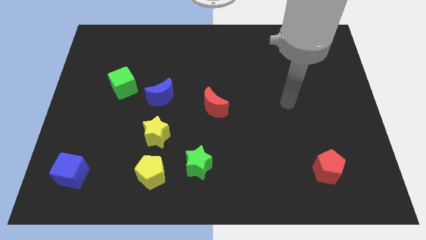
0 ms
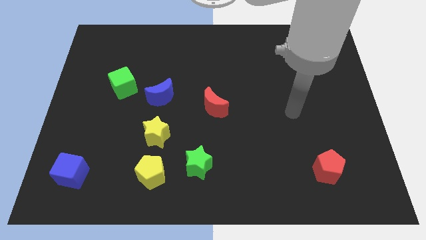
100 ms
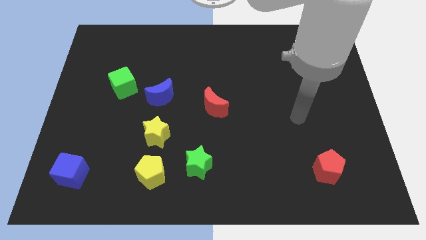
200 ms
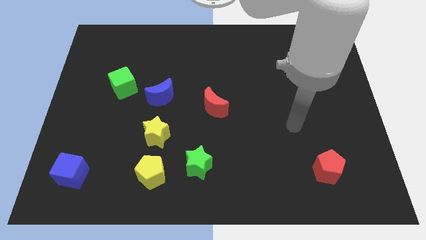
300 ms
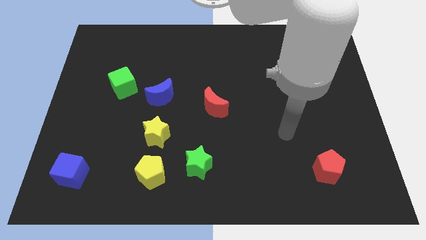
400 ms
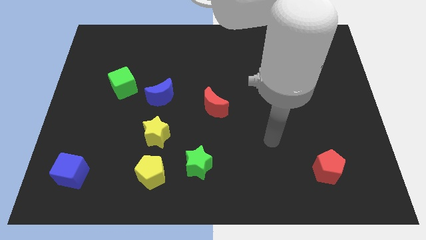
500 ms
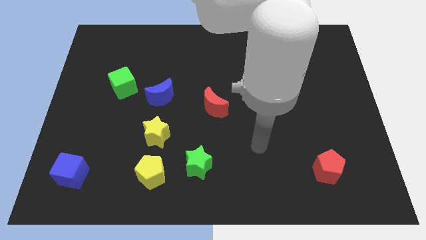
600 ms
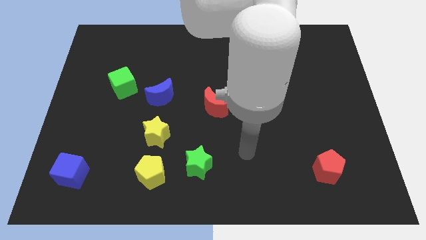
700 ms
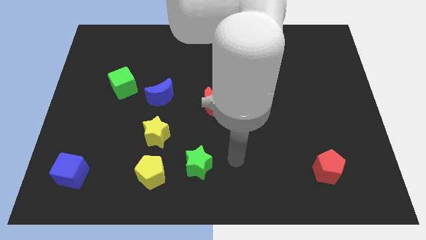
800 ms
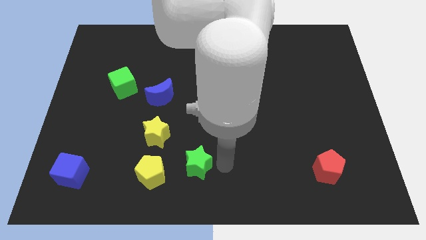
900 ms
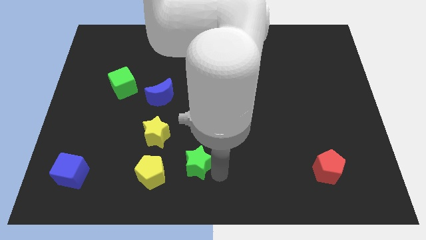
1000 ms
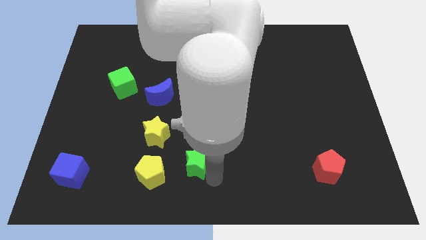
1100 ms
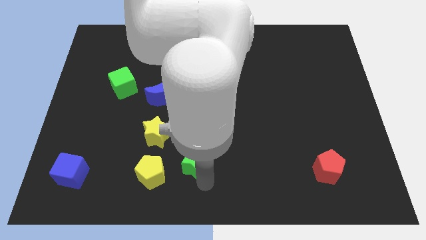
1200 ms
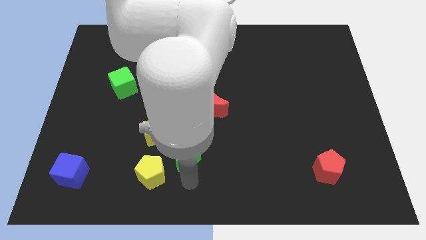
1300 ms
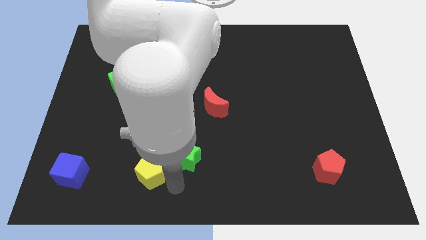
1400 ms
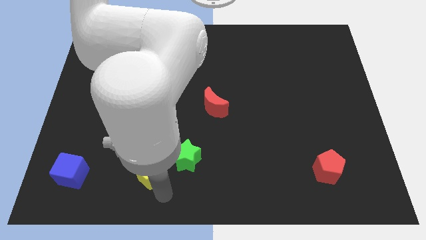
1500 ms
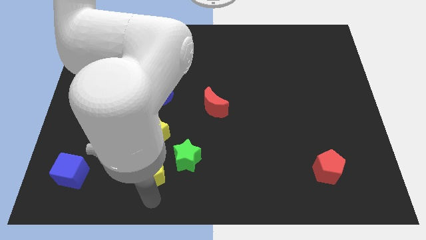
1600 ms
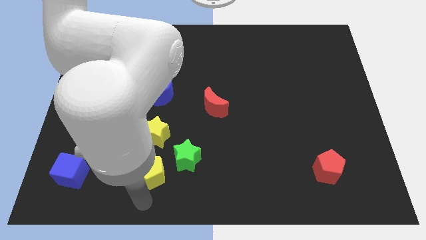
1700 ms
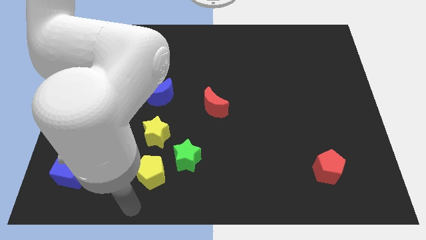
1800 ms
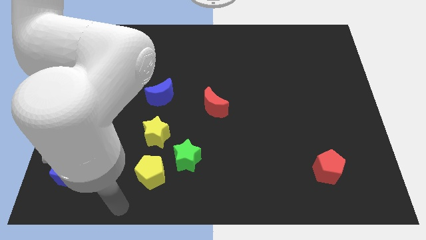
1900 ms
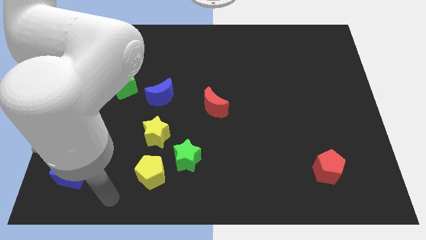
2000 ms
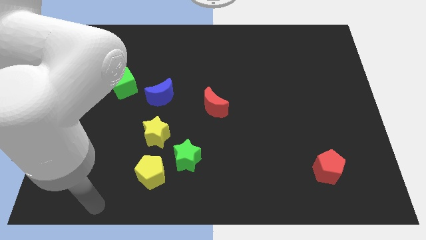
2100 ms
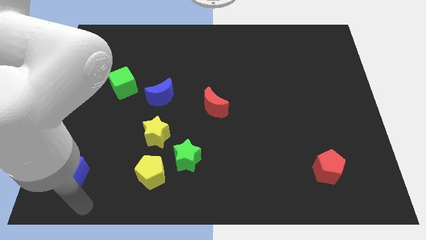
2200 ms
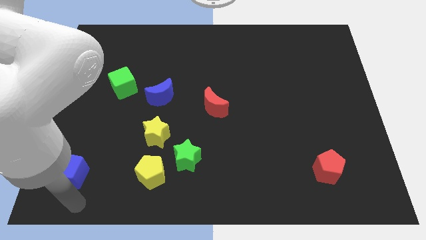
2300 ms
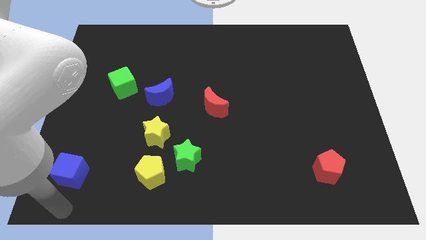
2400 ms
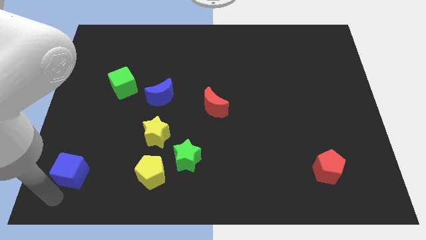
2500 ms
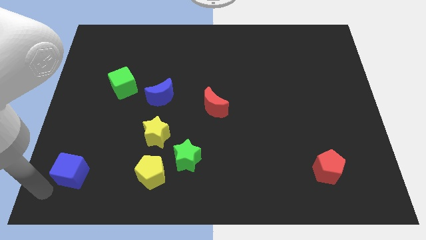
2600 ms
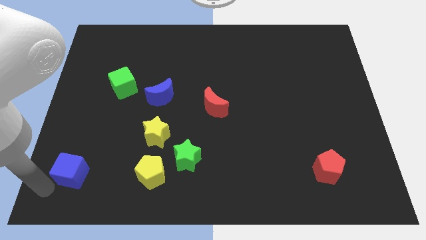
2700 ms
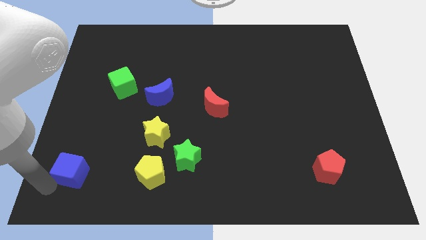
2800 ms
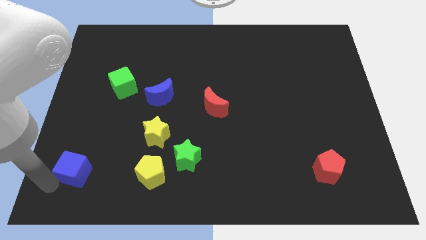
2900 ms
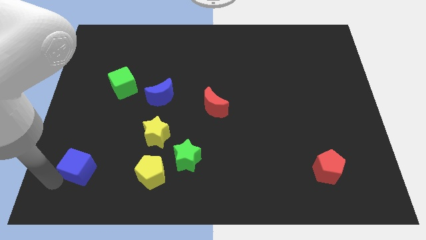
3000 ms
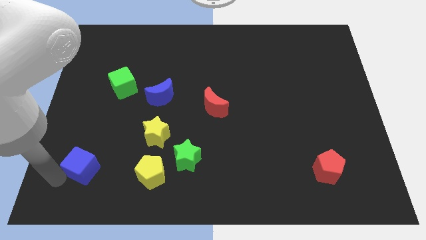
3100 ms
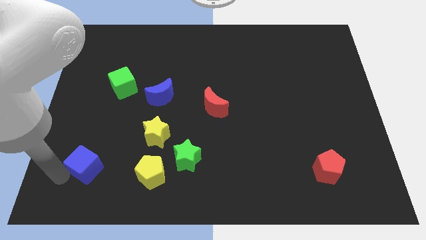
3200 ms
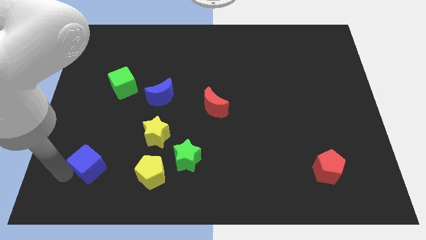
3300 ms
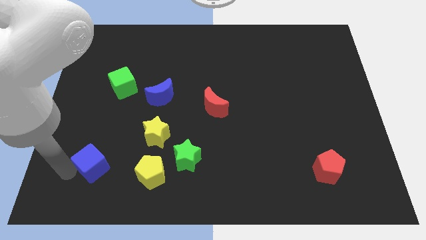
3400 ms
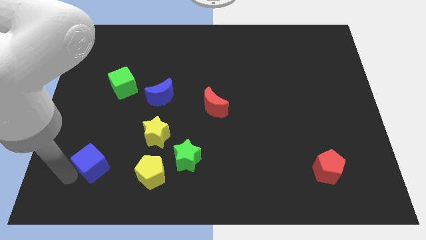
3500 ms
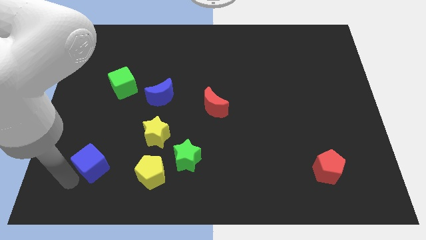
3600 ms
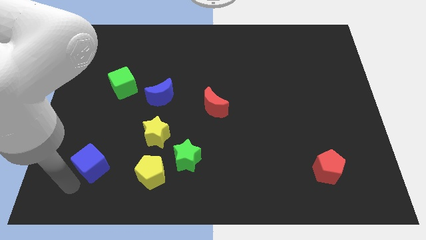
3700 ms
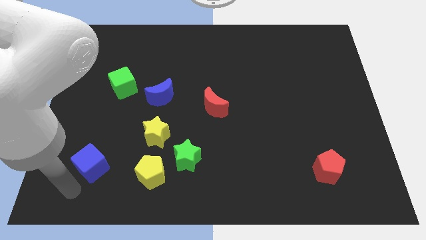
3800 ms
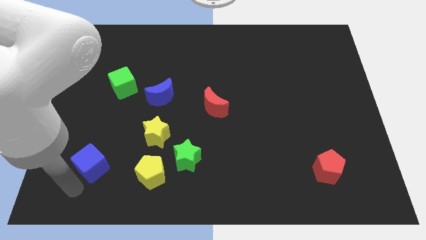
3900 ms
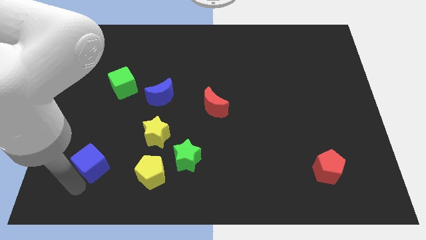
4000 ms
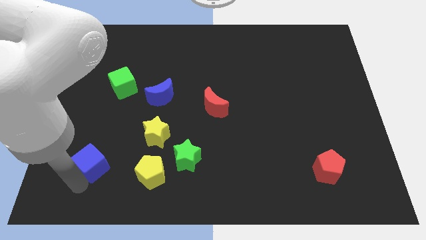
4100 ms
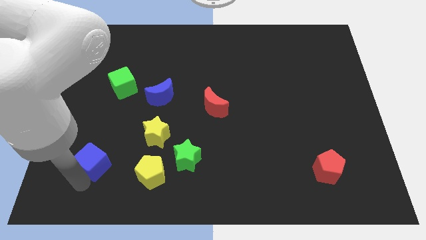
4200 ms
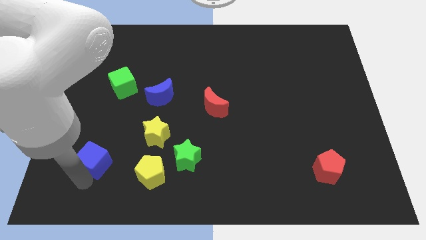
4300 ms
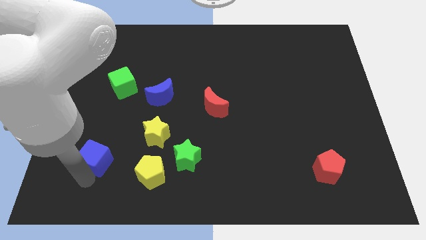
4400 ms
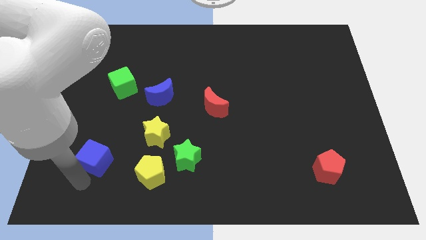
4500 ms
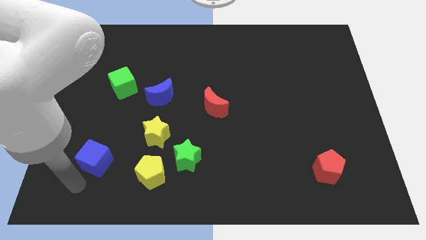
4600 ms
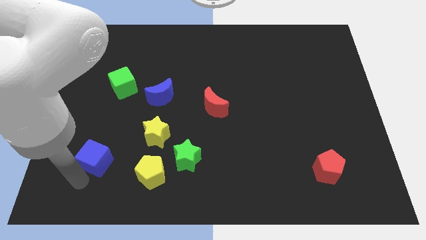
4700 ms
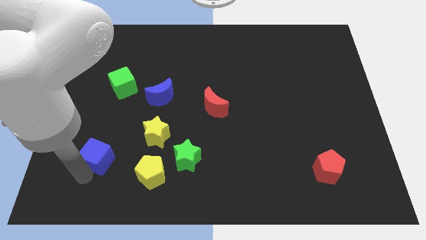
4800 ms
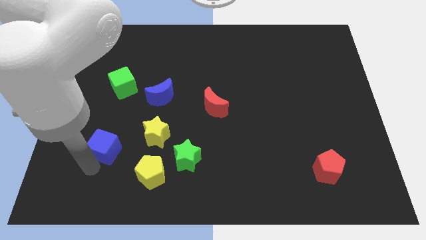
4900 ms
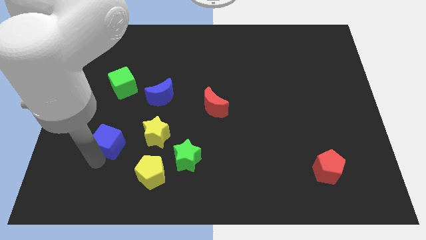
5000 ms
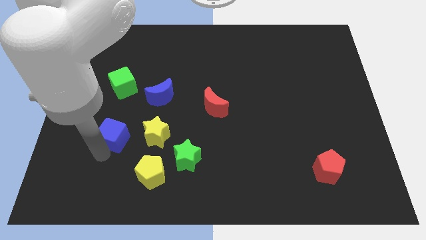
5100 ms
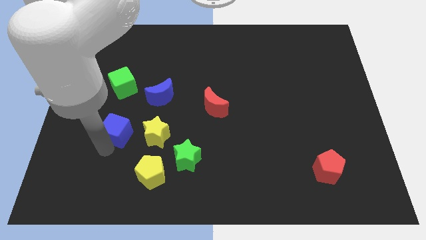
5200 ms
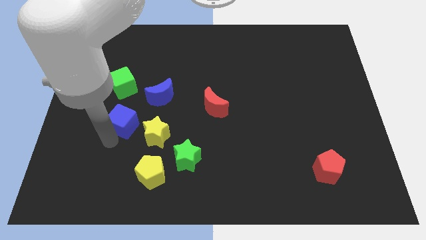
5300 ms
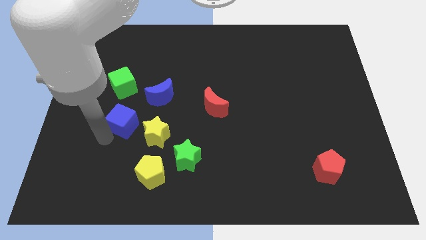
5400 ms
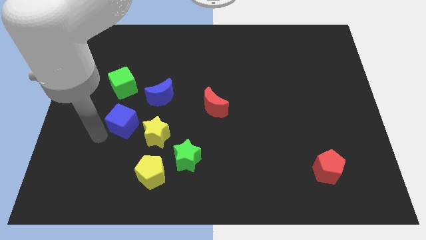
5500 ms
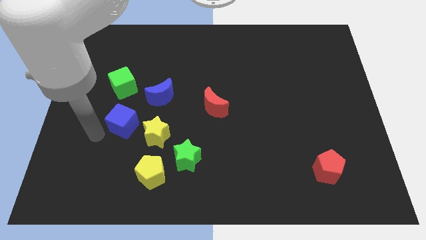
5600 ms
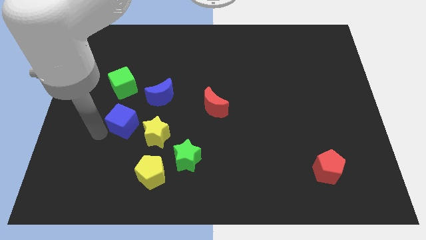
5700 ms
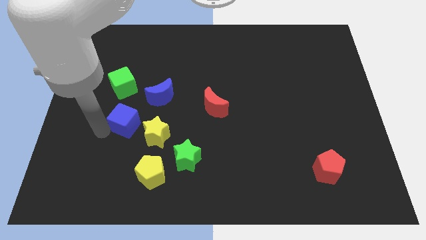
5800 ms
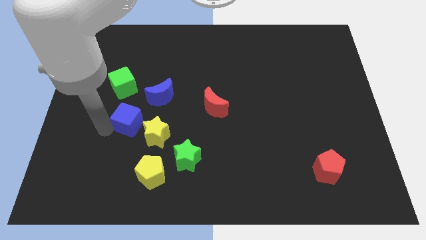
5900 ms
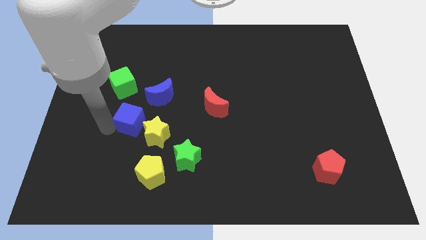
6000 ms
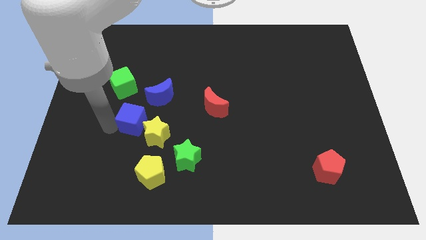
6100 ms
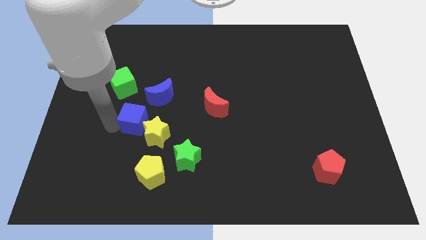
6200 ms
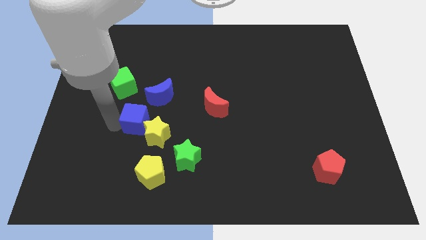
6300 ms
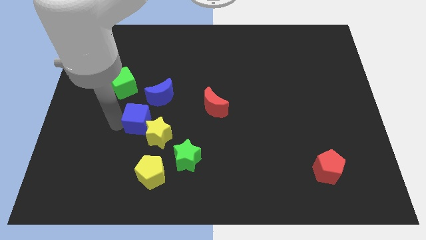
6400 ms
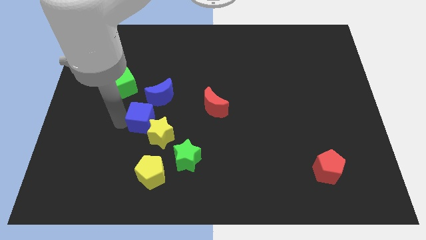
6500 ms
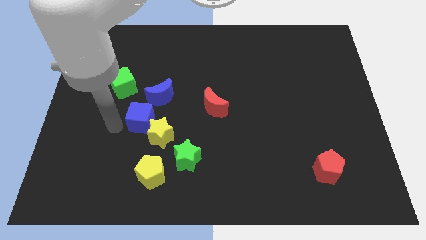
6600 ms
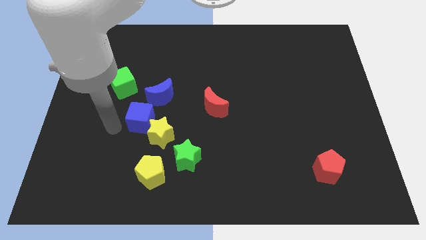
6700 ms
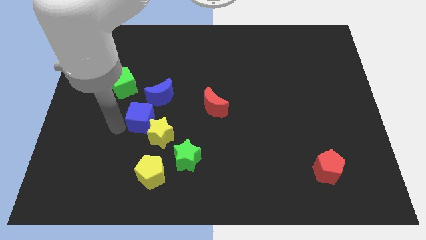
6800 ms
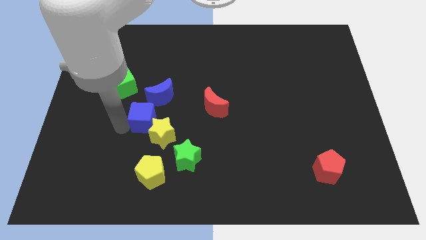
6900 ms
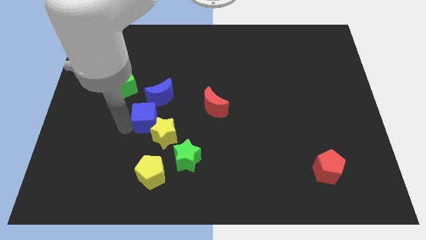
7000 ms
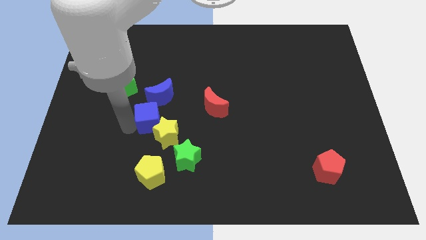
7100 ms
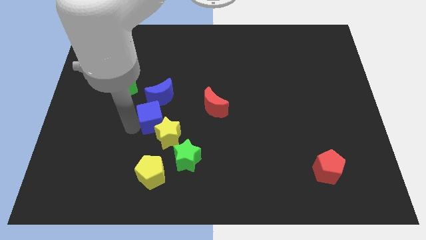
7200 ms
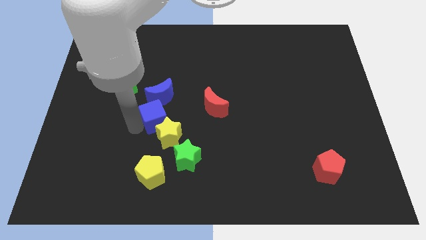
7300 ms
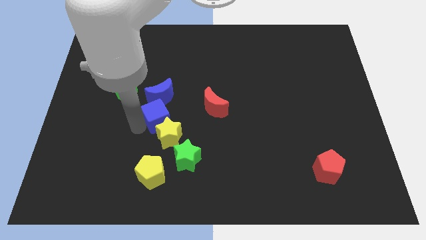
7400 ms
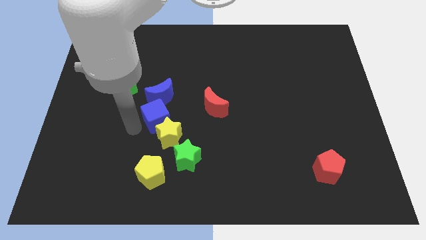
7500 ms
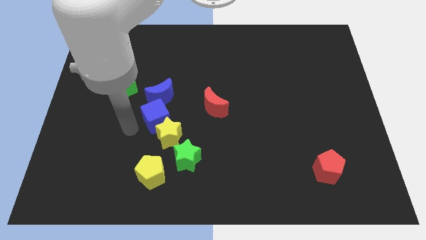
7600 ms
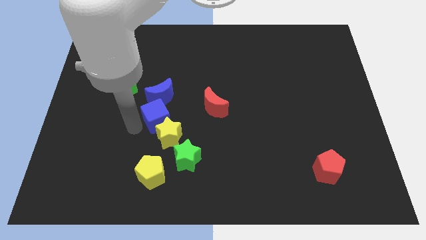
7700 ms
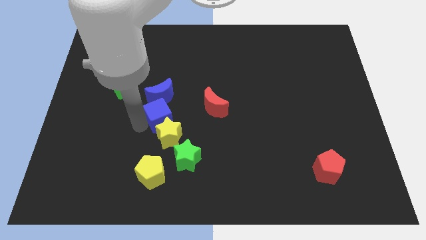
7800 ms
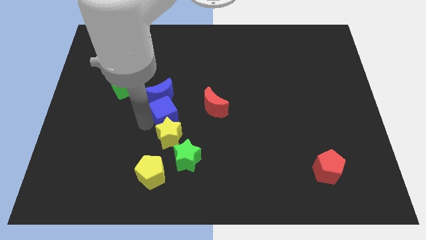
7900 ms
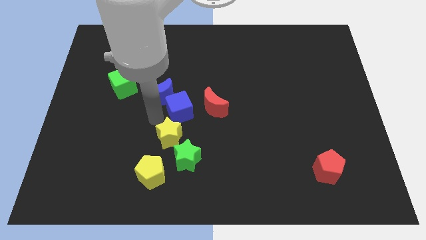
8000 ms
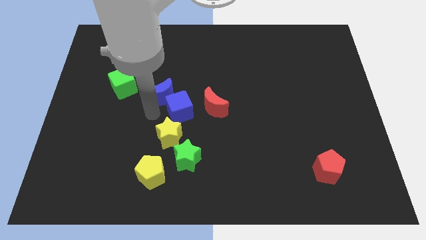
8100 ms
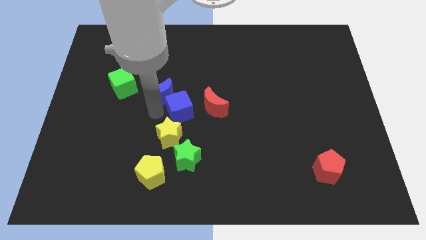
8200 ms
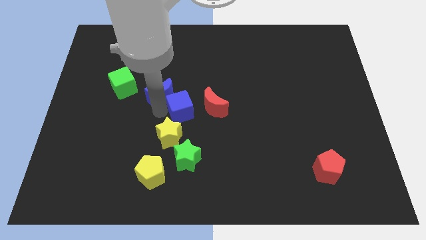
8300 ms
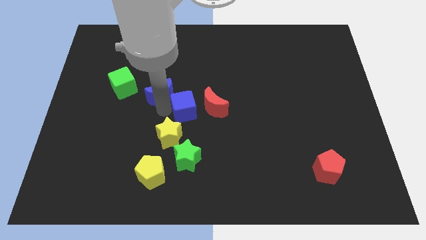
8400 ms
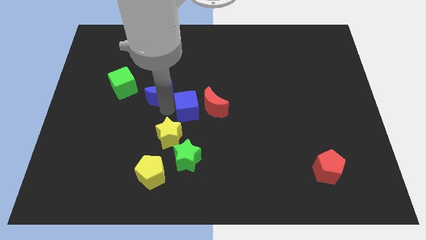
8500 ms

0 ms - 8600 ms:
slide the blue cube to the red moon
